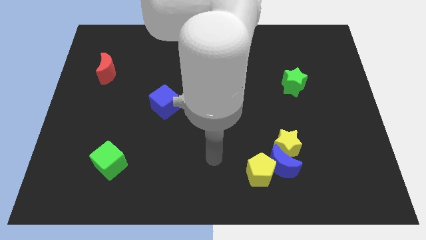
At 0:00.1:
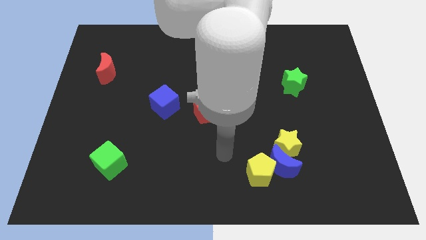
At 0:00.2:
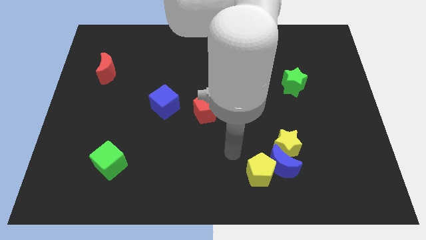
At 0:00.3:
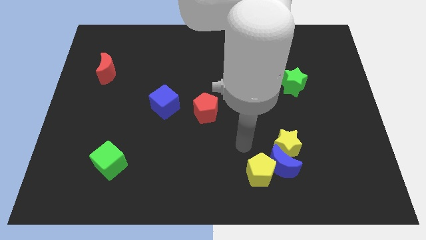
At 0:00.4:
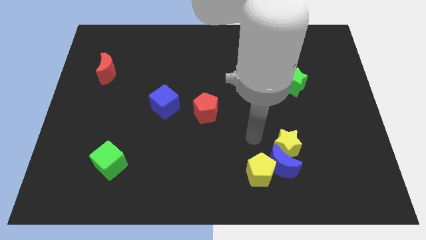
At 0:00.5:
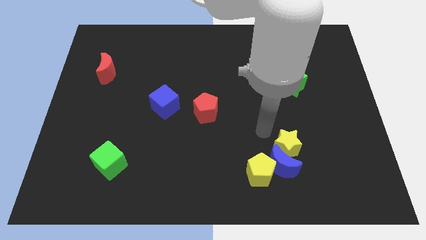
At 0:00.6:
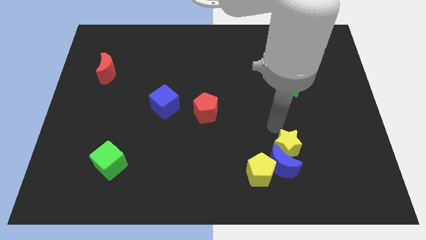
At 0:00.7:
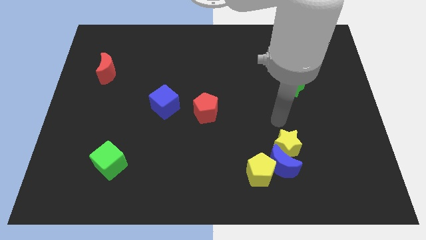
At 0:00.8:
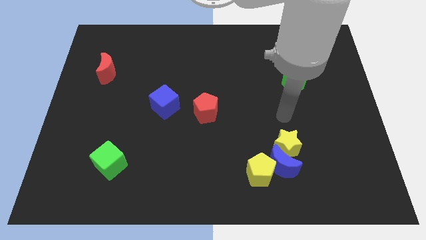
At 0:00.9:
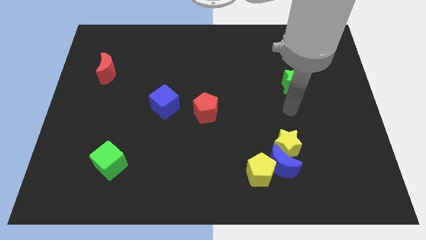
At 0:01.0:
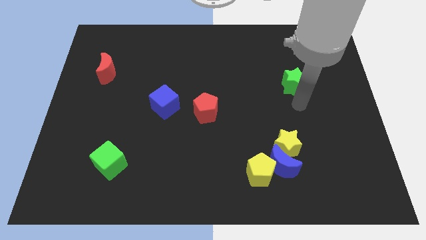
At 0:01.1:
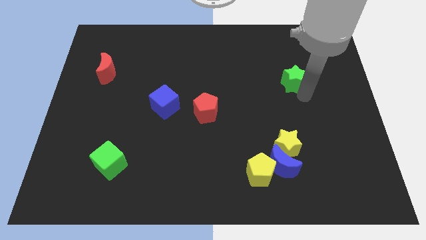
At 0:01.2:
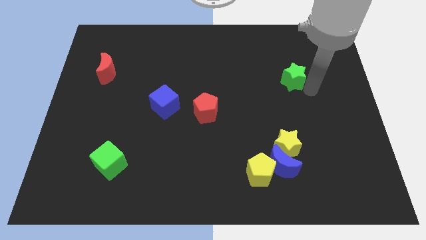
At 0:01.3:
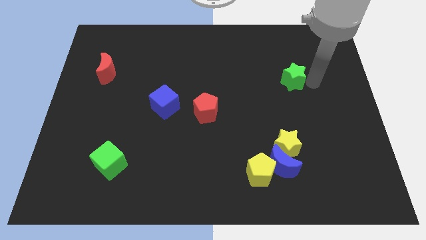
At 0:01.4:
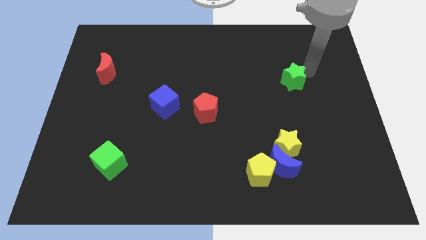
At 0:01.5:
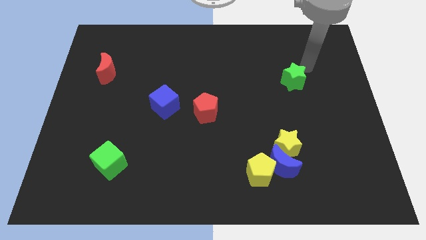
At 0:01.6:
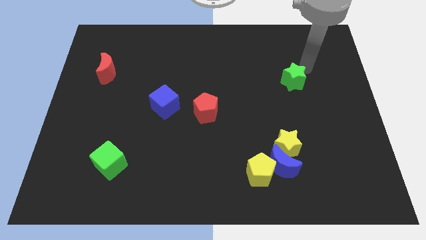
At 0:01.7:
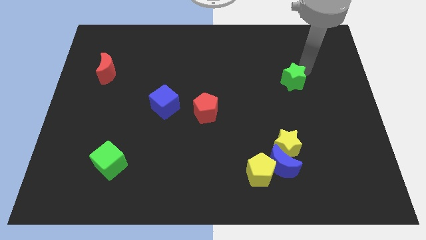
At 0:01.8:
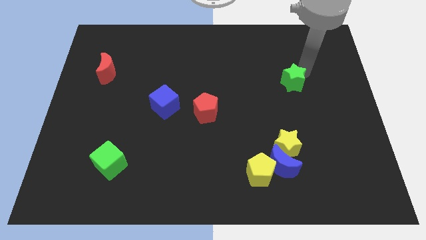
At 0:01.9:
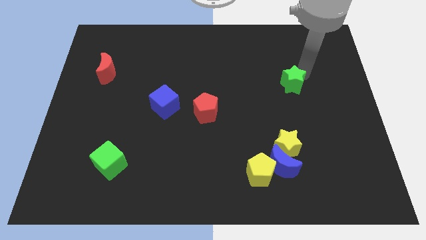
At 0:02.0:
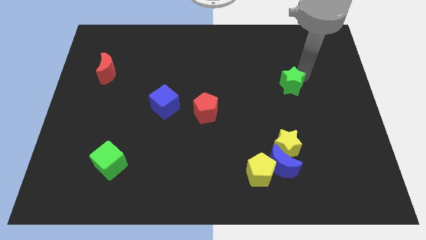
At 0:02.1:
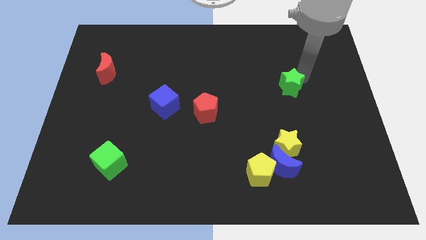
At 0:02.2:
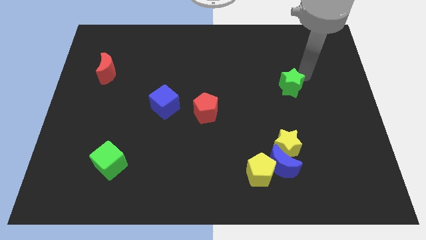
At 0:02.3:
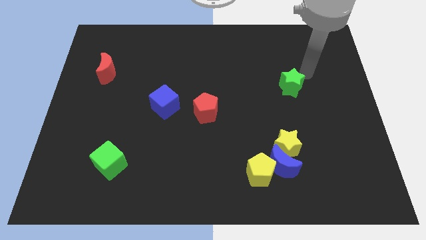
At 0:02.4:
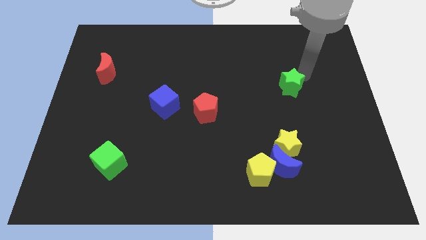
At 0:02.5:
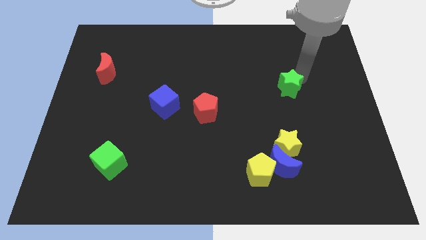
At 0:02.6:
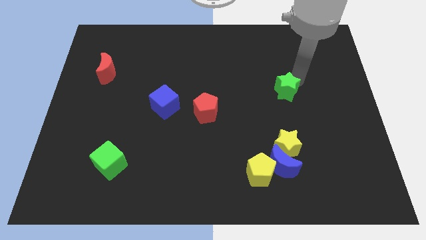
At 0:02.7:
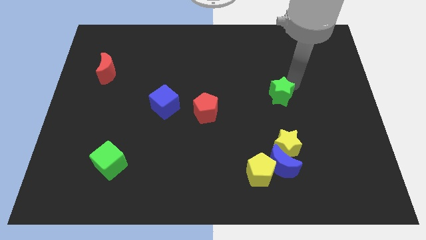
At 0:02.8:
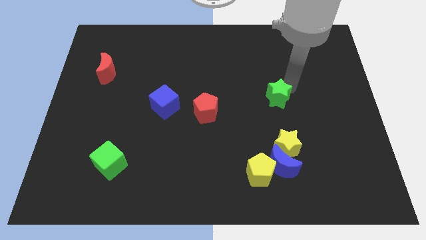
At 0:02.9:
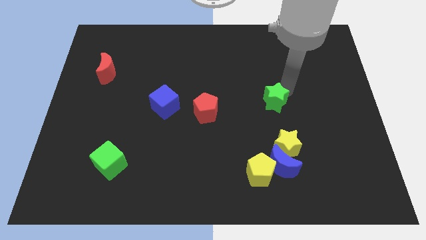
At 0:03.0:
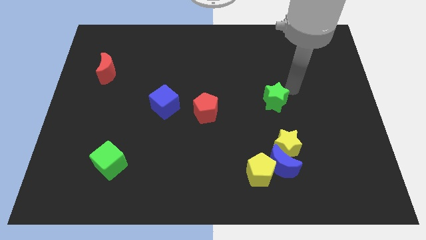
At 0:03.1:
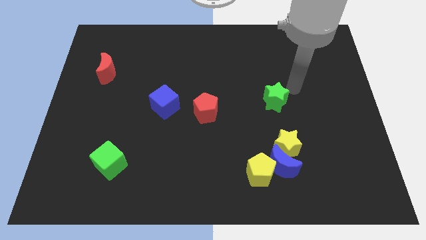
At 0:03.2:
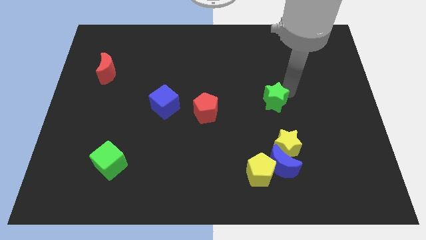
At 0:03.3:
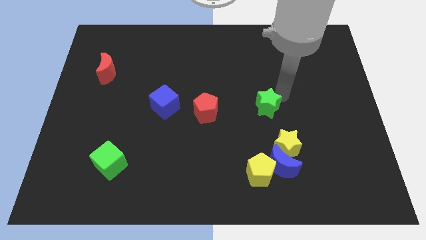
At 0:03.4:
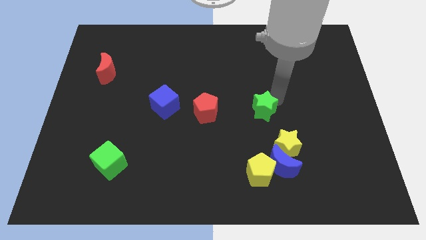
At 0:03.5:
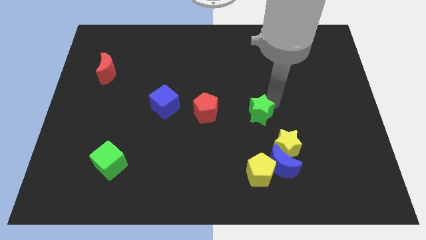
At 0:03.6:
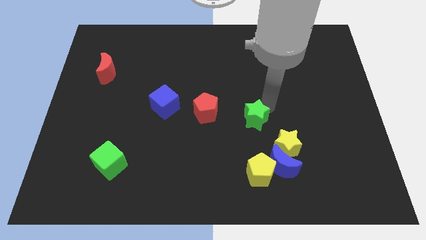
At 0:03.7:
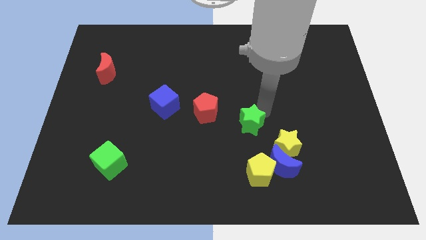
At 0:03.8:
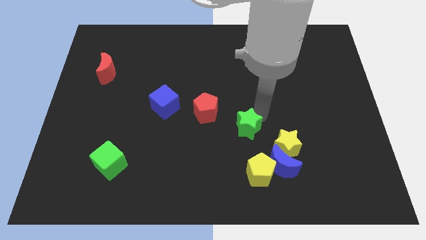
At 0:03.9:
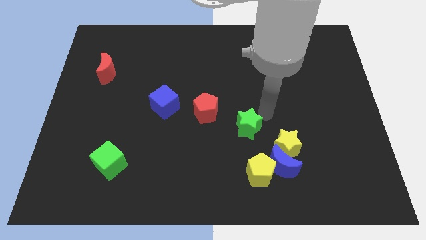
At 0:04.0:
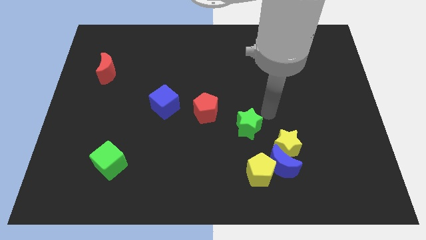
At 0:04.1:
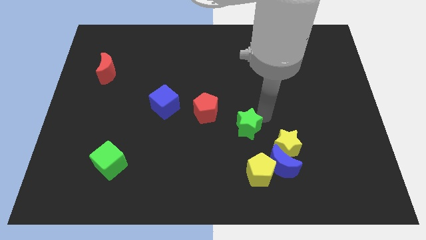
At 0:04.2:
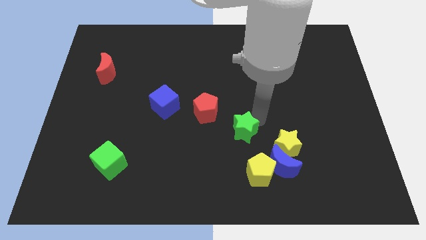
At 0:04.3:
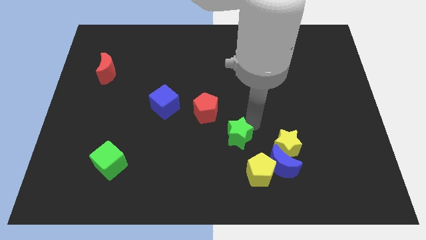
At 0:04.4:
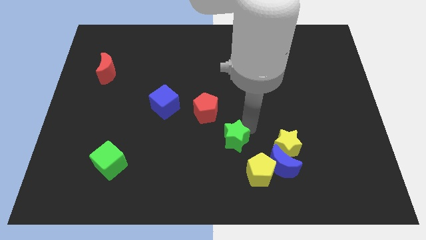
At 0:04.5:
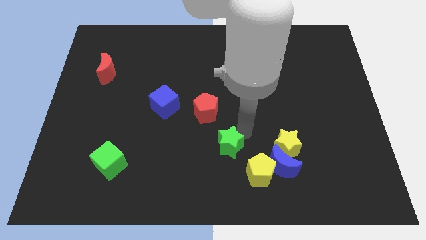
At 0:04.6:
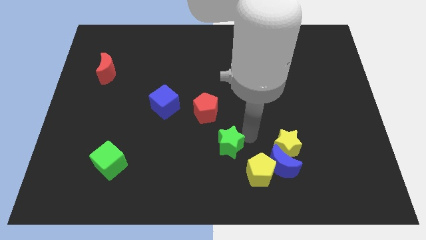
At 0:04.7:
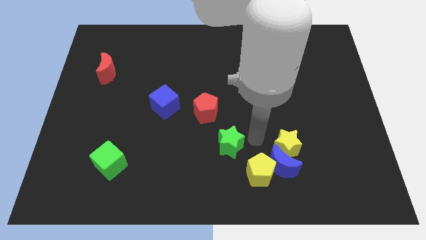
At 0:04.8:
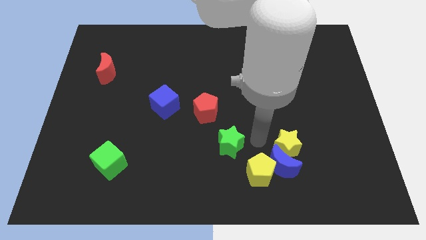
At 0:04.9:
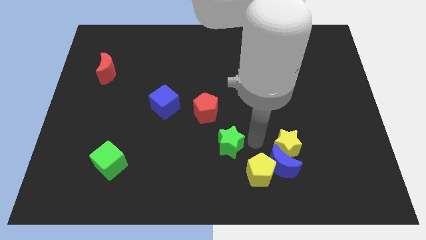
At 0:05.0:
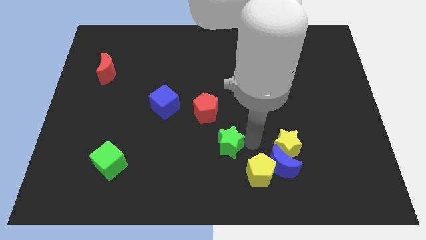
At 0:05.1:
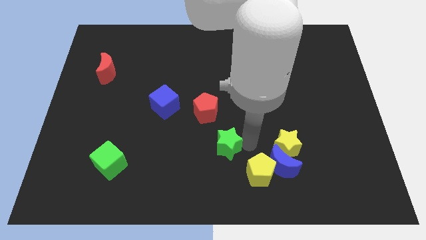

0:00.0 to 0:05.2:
push the green star to the bottom side of the red pentagon

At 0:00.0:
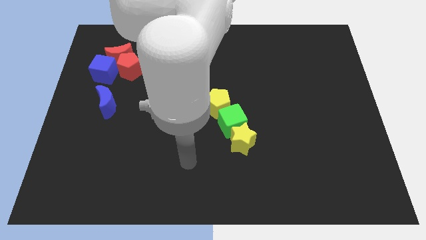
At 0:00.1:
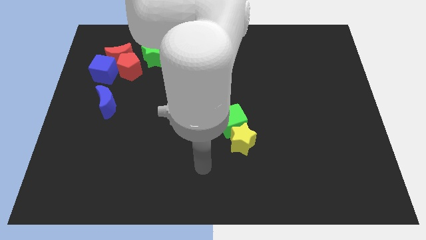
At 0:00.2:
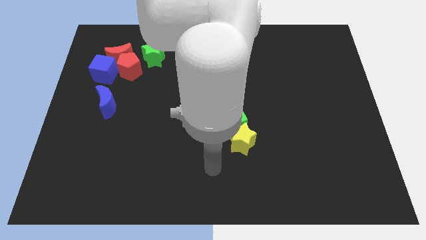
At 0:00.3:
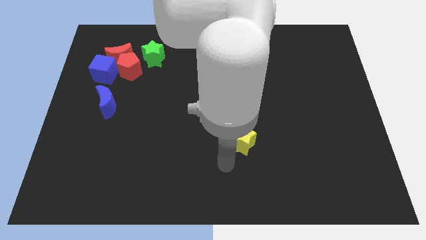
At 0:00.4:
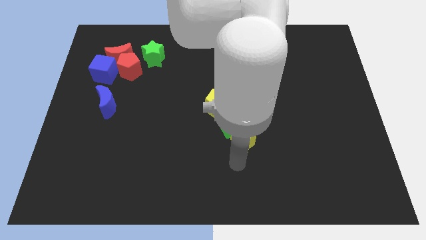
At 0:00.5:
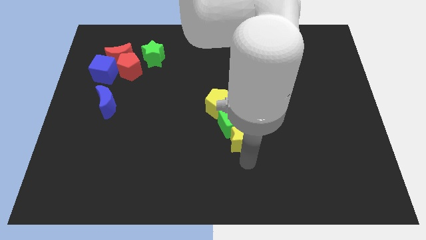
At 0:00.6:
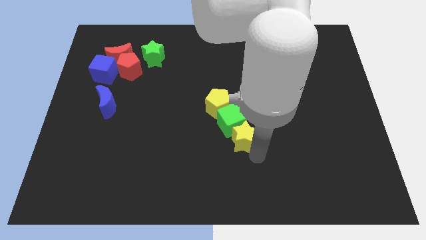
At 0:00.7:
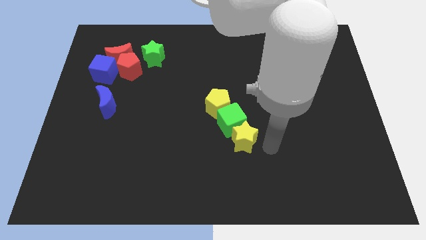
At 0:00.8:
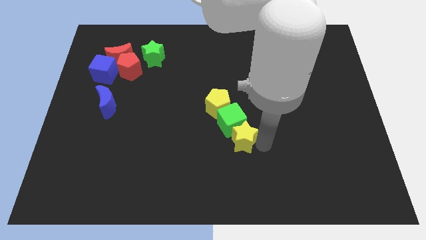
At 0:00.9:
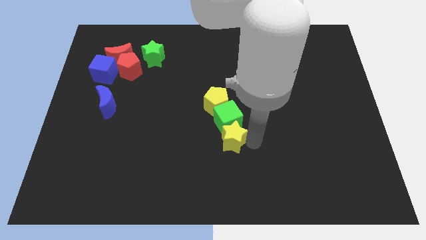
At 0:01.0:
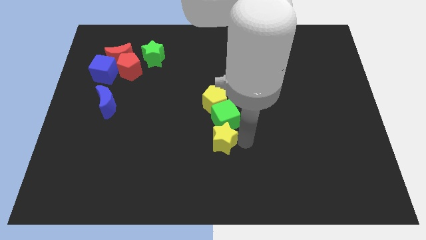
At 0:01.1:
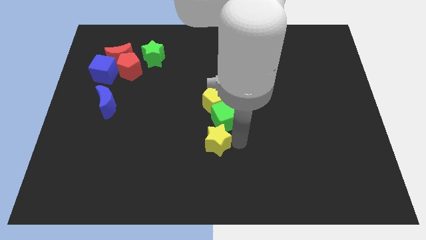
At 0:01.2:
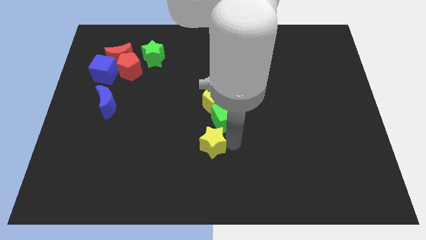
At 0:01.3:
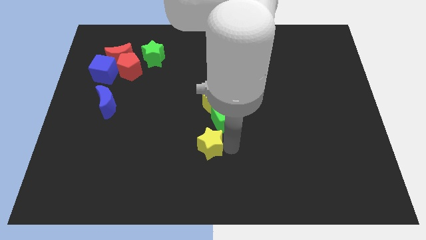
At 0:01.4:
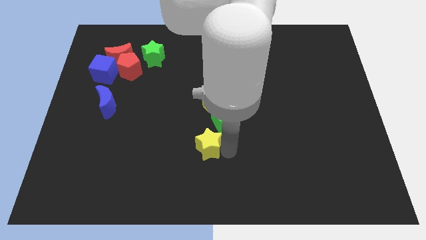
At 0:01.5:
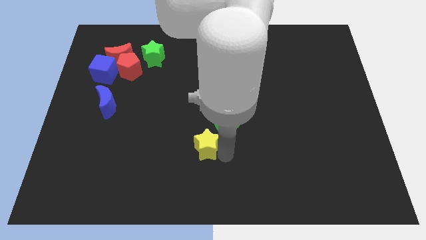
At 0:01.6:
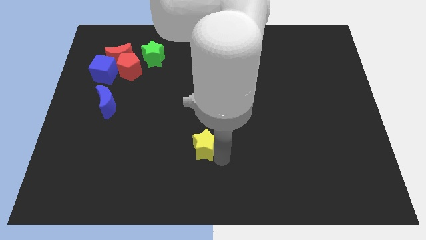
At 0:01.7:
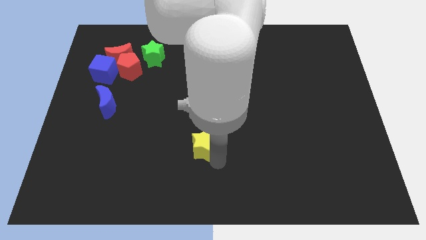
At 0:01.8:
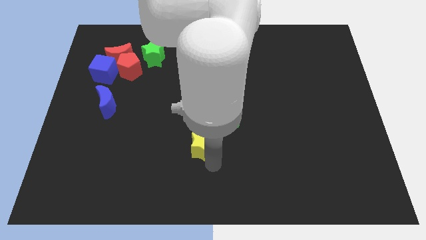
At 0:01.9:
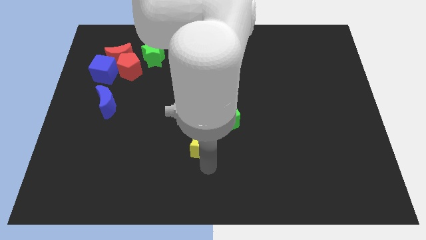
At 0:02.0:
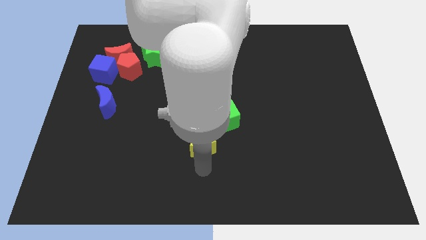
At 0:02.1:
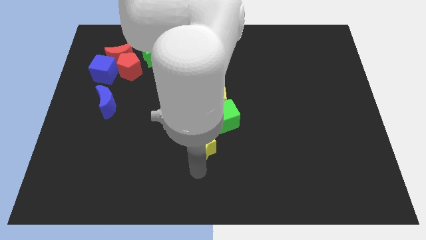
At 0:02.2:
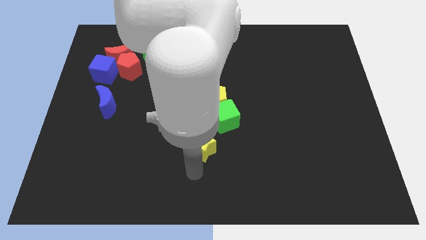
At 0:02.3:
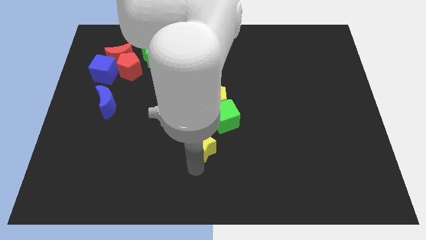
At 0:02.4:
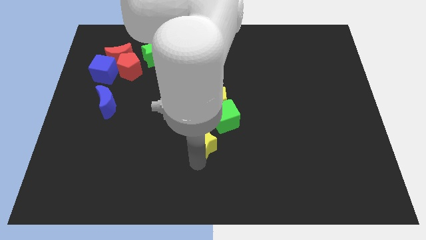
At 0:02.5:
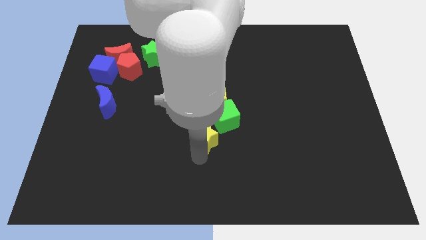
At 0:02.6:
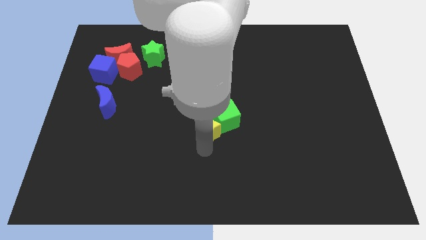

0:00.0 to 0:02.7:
put the yellow star to the left side of the green cube
